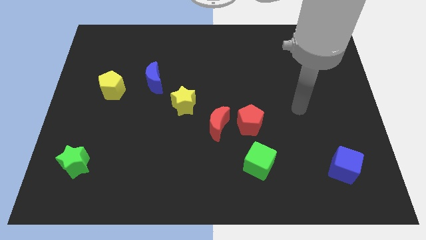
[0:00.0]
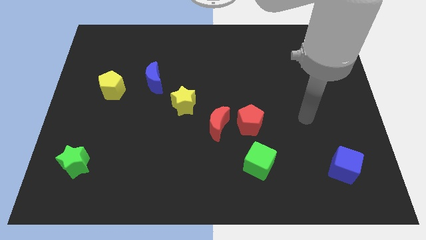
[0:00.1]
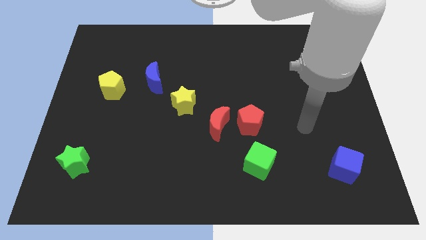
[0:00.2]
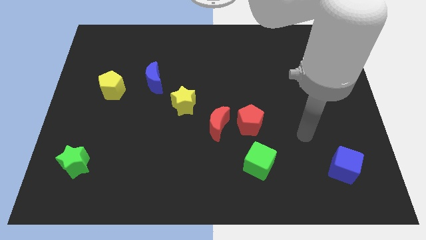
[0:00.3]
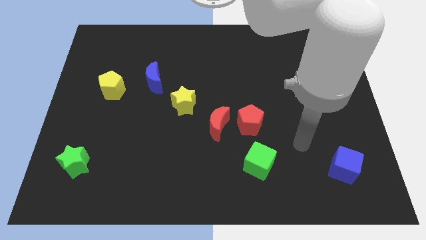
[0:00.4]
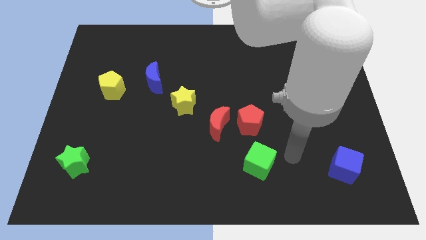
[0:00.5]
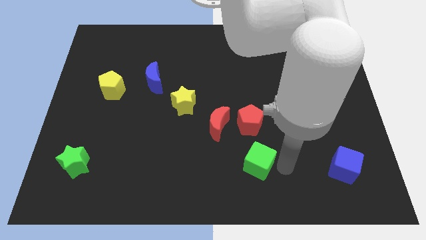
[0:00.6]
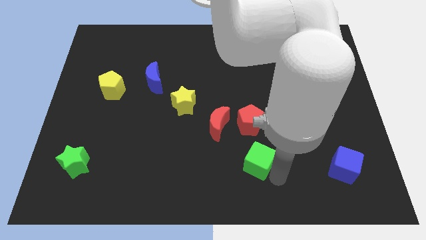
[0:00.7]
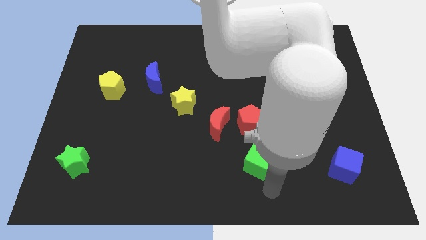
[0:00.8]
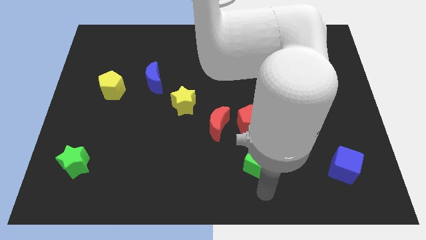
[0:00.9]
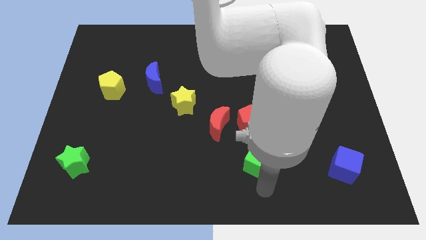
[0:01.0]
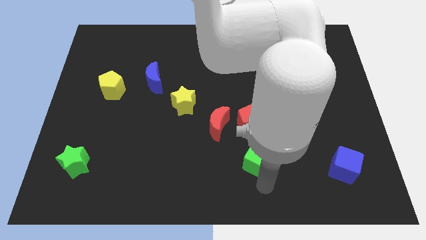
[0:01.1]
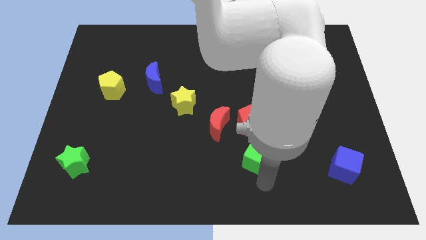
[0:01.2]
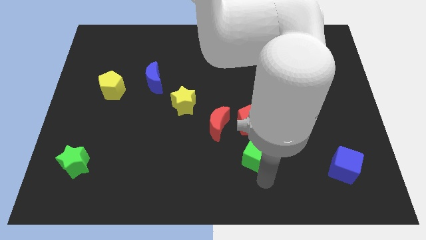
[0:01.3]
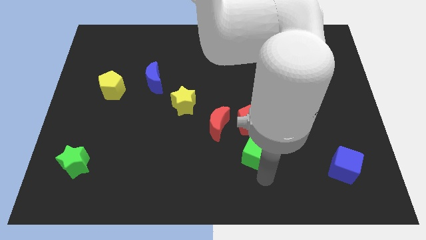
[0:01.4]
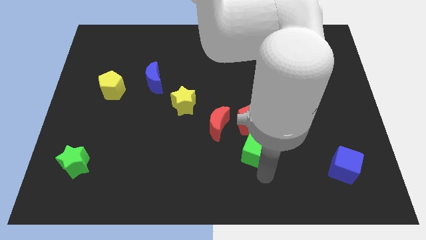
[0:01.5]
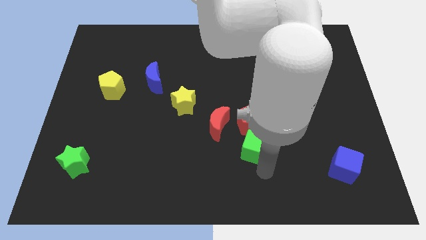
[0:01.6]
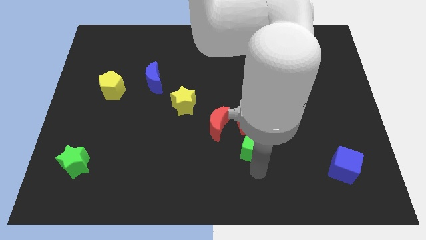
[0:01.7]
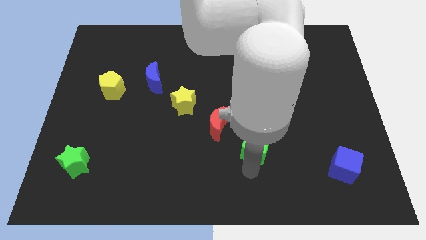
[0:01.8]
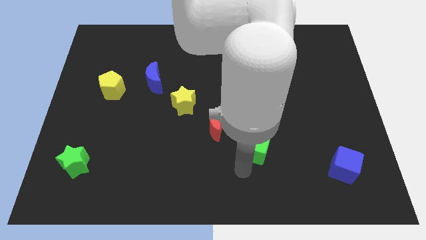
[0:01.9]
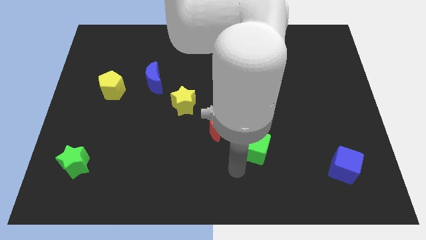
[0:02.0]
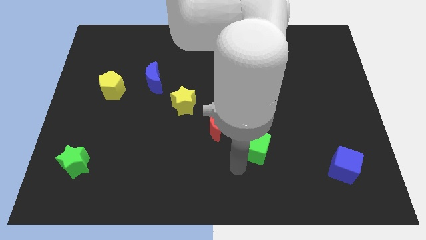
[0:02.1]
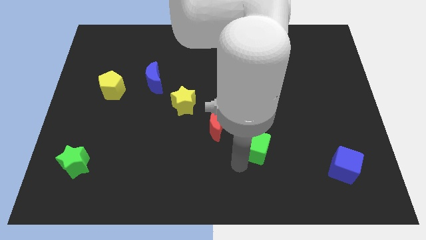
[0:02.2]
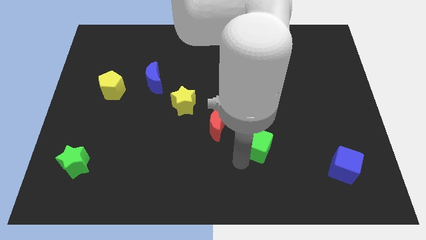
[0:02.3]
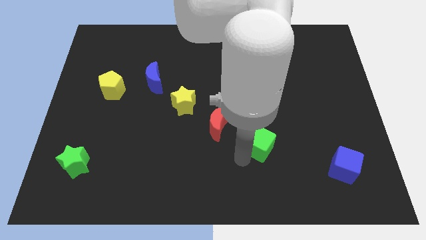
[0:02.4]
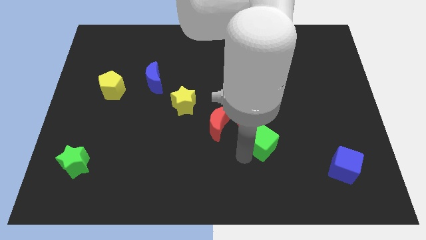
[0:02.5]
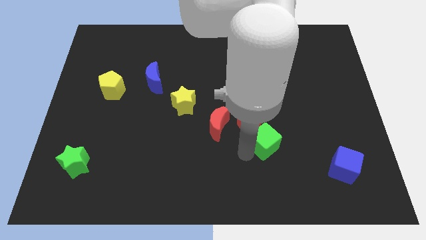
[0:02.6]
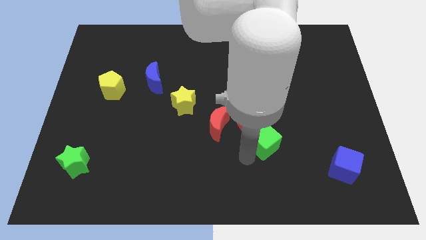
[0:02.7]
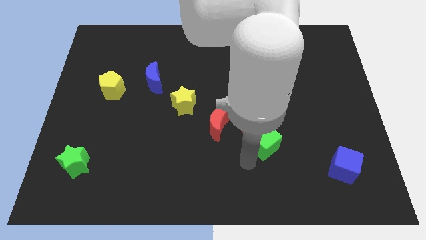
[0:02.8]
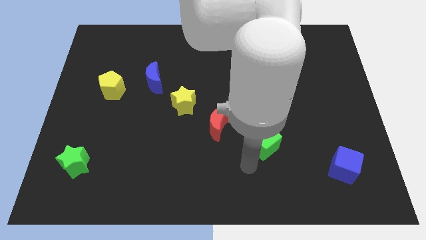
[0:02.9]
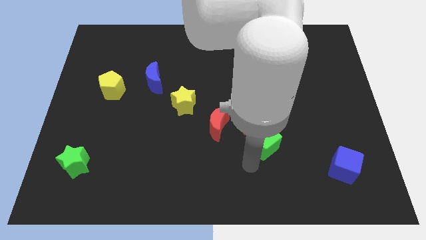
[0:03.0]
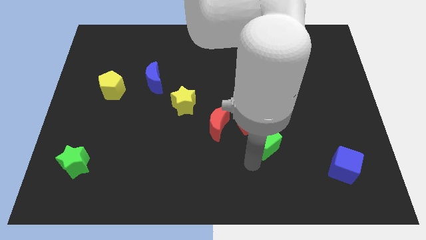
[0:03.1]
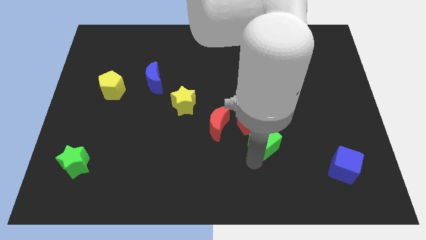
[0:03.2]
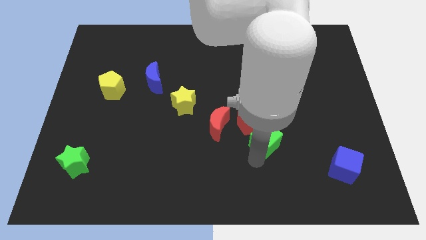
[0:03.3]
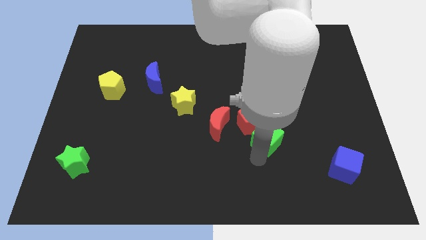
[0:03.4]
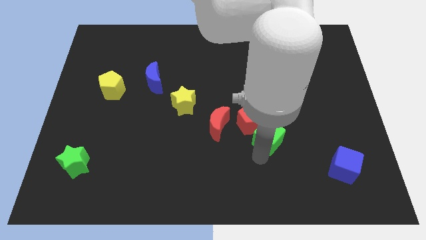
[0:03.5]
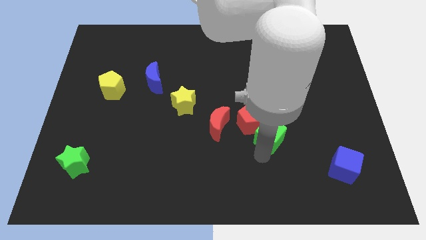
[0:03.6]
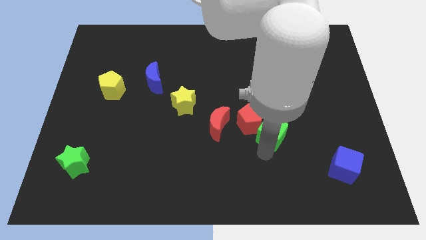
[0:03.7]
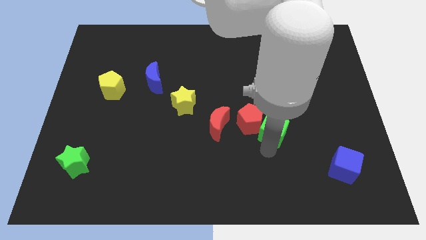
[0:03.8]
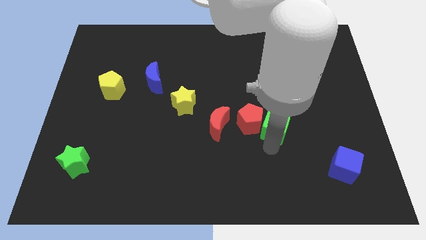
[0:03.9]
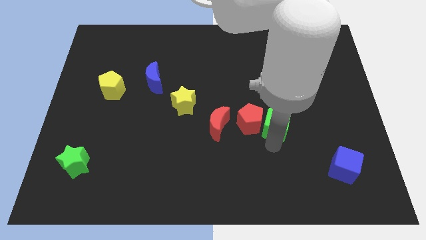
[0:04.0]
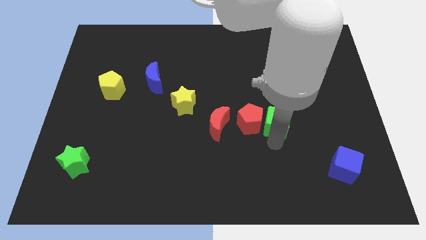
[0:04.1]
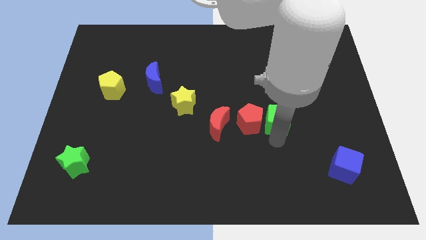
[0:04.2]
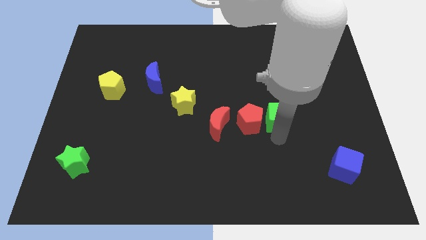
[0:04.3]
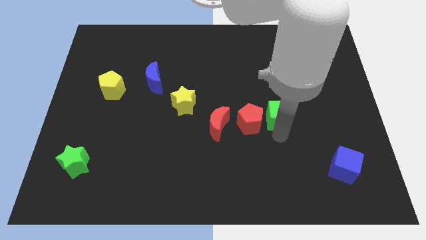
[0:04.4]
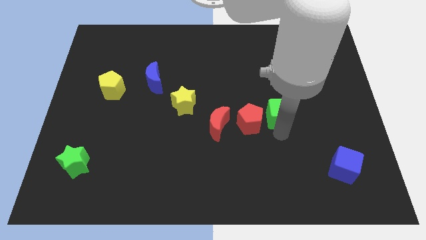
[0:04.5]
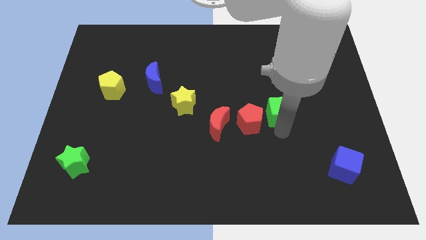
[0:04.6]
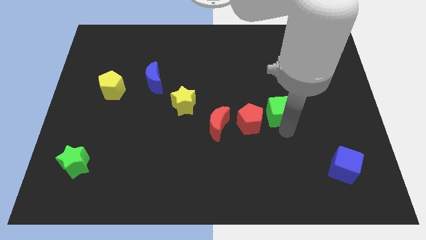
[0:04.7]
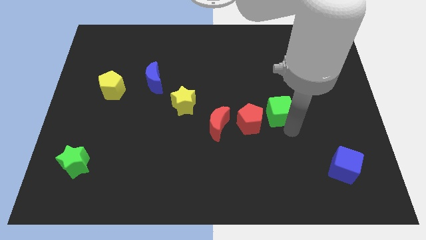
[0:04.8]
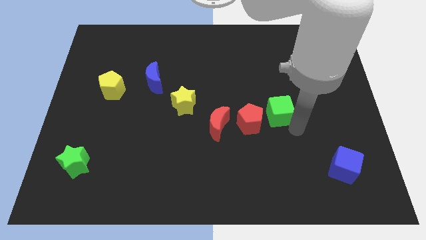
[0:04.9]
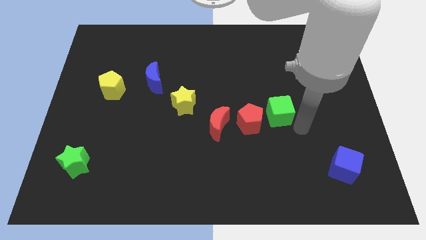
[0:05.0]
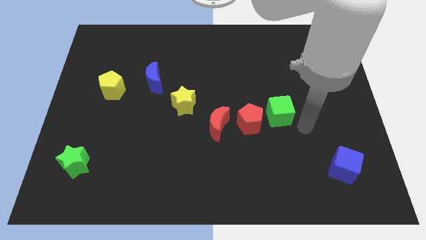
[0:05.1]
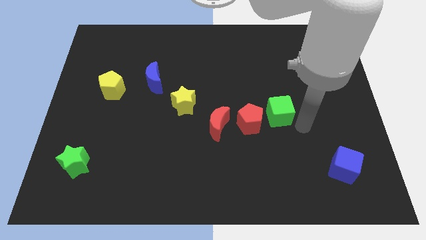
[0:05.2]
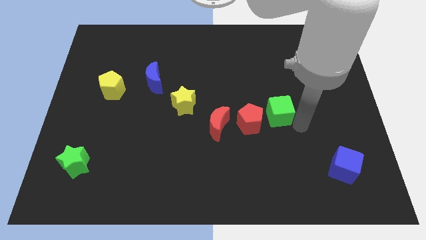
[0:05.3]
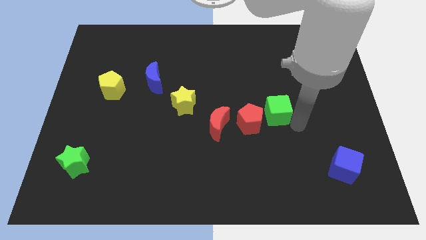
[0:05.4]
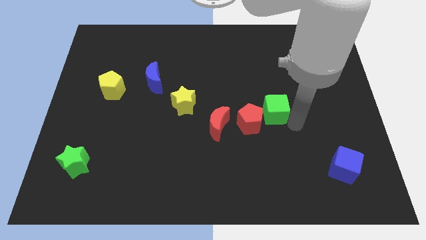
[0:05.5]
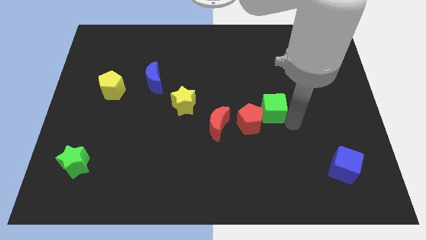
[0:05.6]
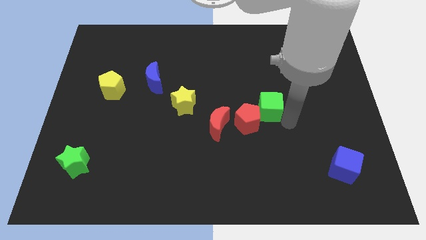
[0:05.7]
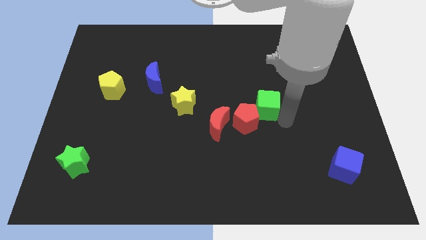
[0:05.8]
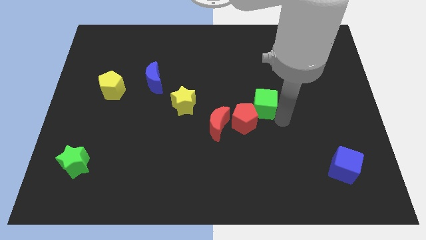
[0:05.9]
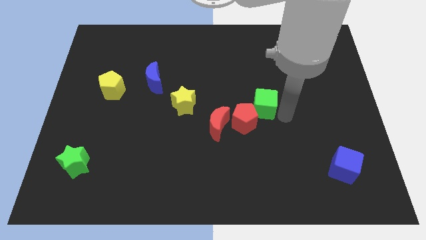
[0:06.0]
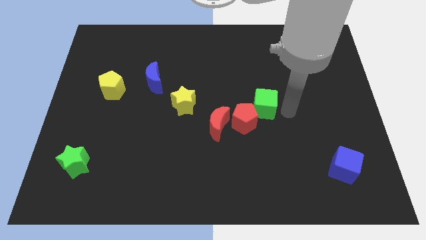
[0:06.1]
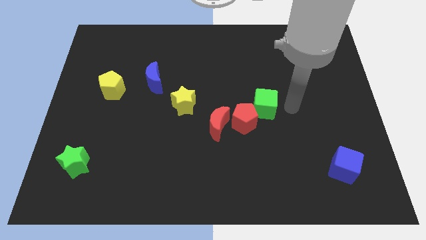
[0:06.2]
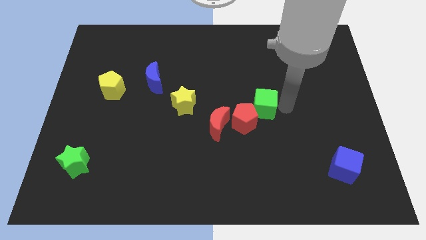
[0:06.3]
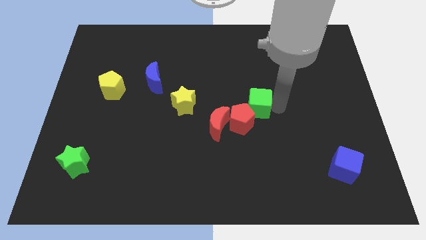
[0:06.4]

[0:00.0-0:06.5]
push the green cube diagonally up and to the right of the red moon
